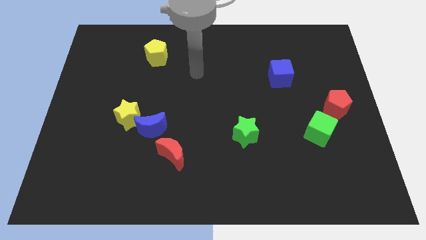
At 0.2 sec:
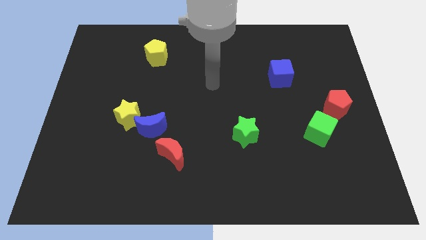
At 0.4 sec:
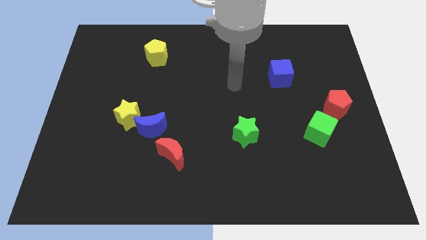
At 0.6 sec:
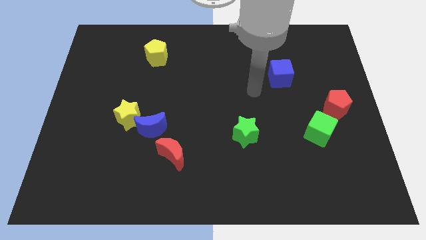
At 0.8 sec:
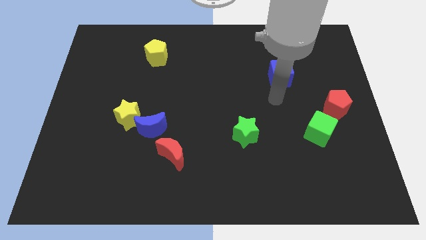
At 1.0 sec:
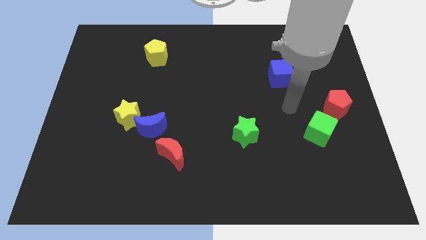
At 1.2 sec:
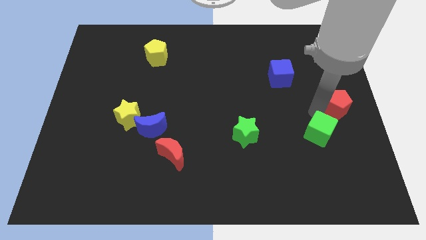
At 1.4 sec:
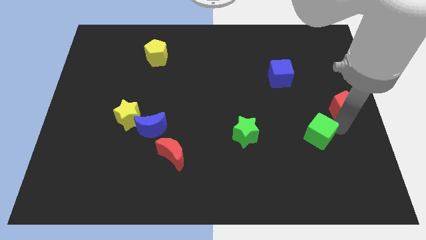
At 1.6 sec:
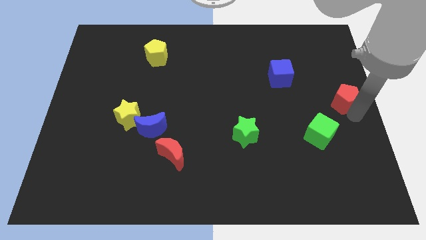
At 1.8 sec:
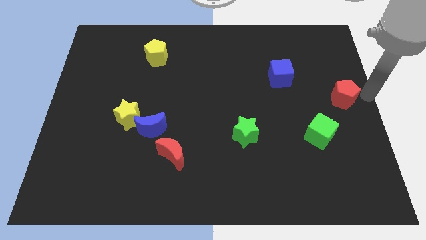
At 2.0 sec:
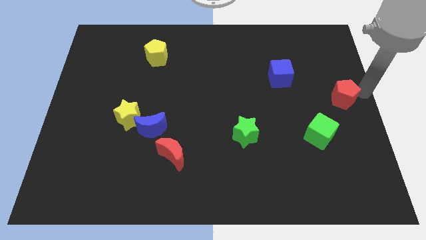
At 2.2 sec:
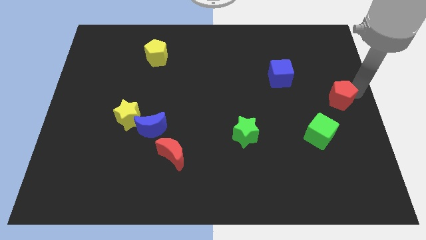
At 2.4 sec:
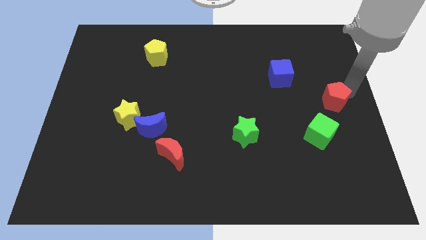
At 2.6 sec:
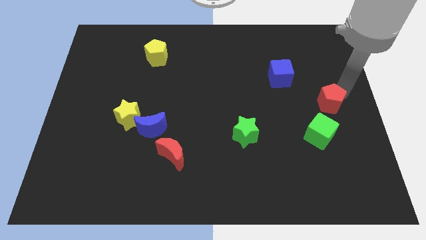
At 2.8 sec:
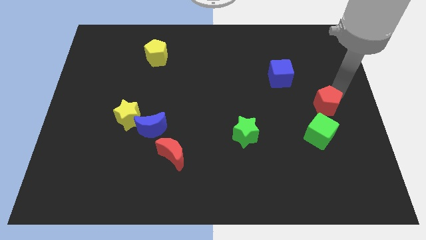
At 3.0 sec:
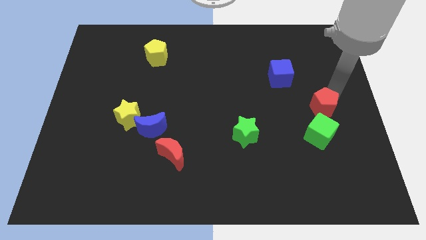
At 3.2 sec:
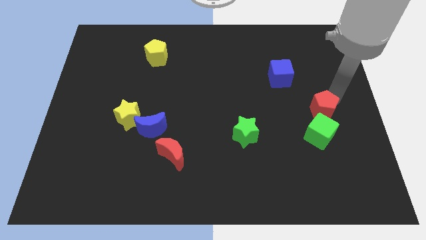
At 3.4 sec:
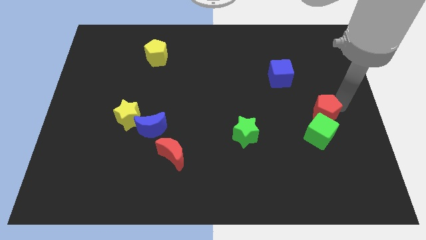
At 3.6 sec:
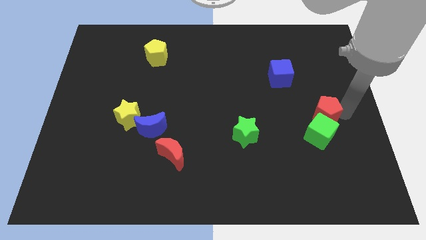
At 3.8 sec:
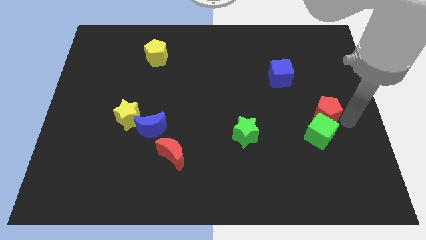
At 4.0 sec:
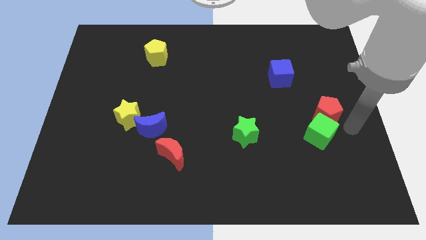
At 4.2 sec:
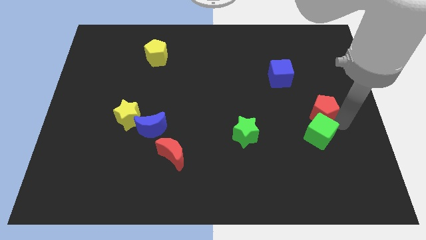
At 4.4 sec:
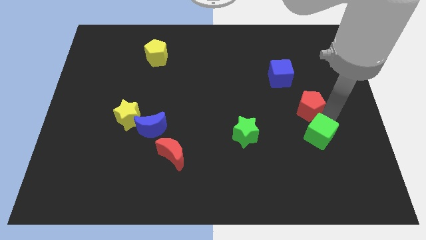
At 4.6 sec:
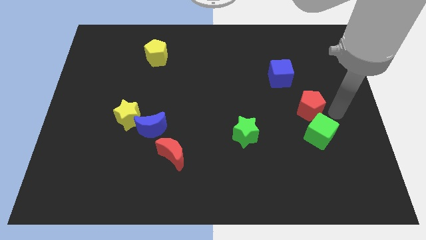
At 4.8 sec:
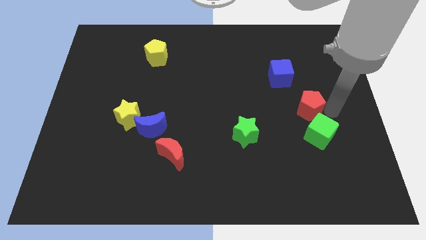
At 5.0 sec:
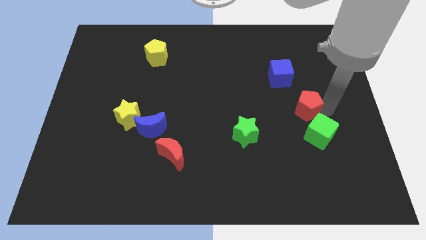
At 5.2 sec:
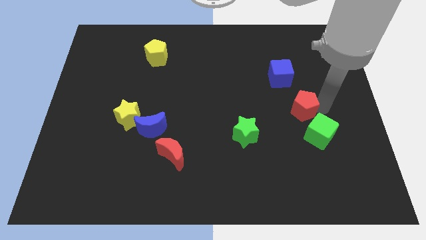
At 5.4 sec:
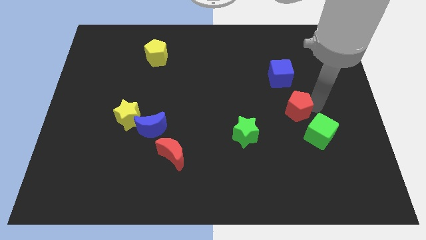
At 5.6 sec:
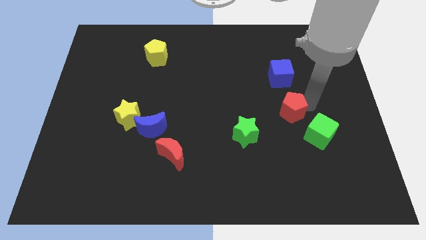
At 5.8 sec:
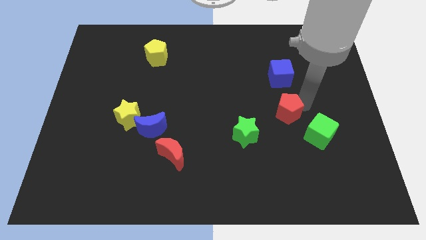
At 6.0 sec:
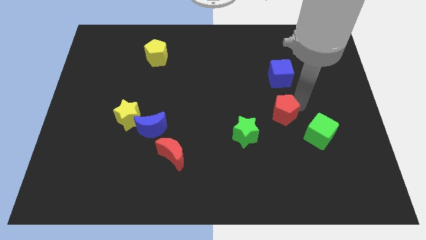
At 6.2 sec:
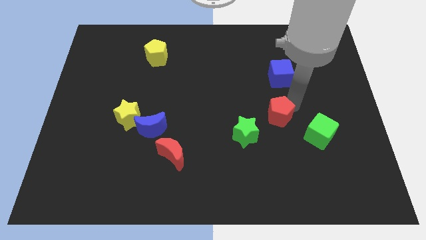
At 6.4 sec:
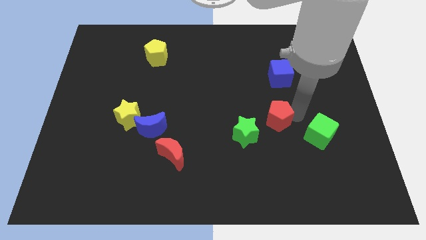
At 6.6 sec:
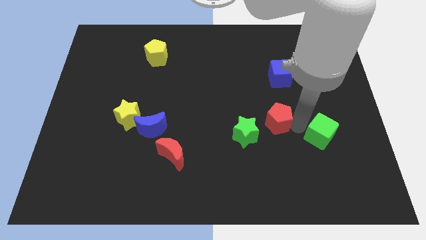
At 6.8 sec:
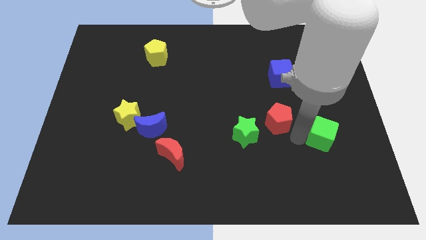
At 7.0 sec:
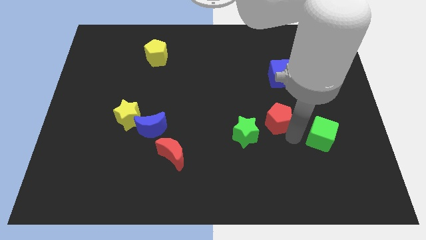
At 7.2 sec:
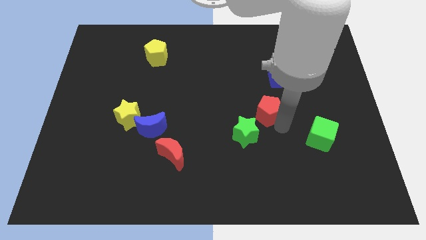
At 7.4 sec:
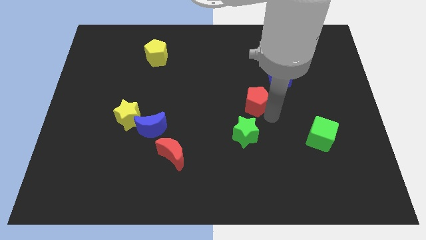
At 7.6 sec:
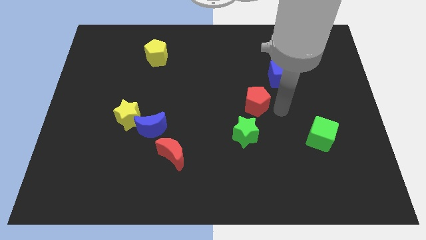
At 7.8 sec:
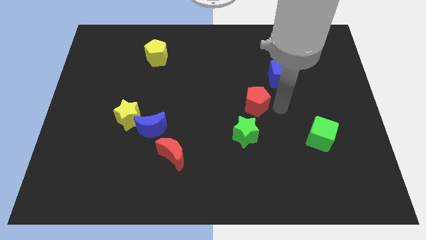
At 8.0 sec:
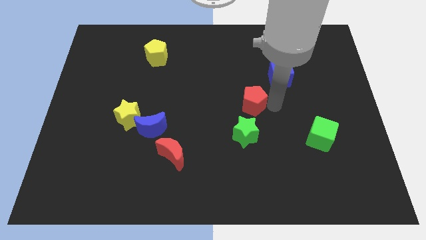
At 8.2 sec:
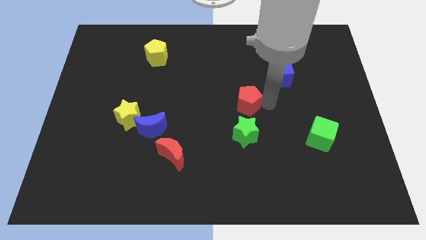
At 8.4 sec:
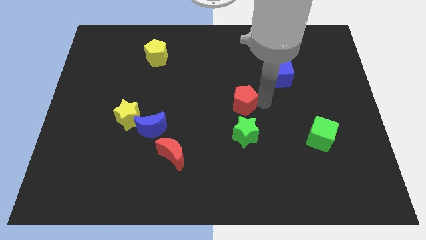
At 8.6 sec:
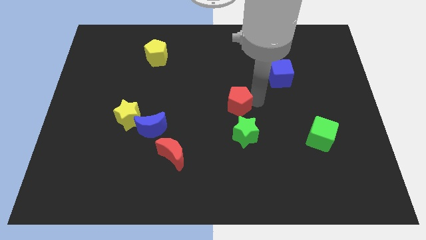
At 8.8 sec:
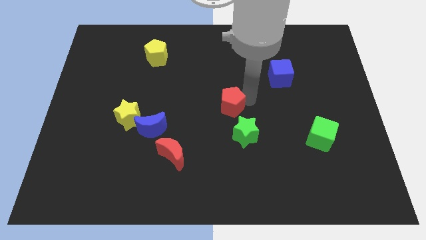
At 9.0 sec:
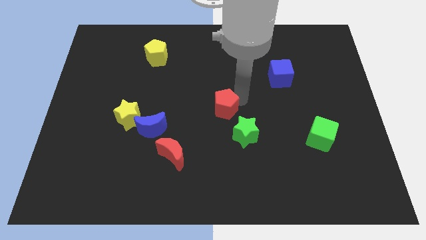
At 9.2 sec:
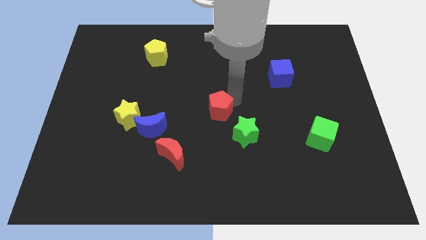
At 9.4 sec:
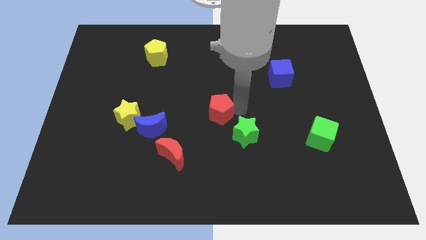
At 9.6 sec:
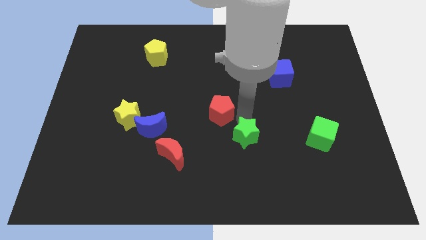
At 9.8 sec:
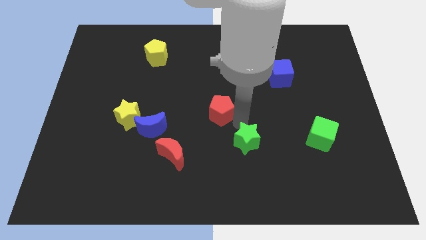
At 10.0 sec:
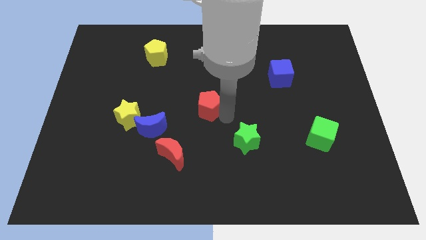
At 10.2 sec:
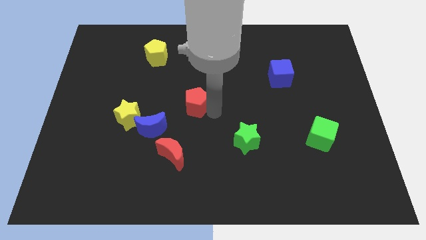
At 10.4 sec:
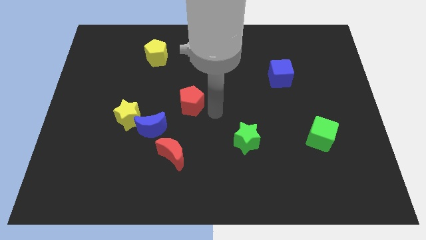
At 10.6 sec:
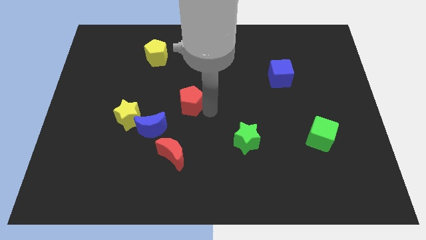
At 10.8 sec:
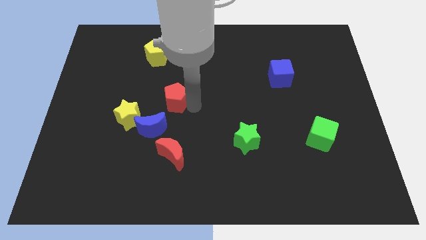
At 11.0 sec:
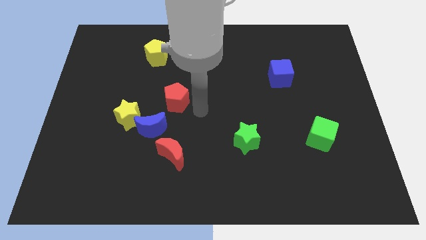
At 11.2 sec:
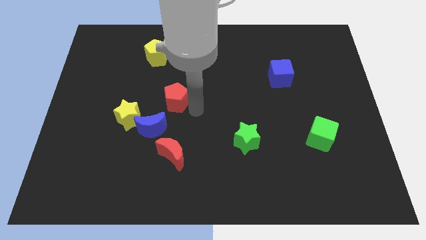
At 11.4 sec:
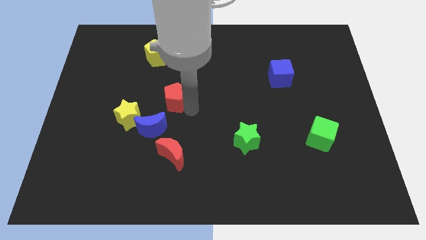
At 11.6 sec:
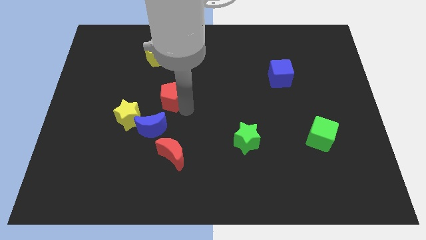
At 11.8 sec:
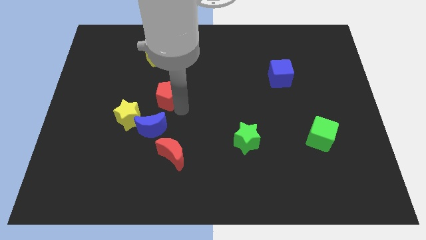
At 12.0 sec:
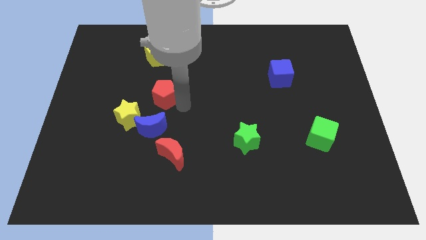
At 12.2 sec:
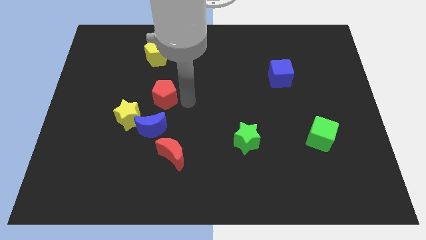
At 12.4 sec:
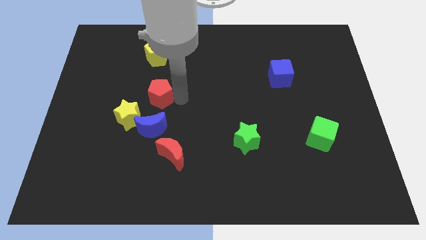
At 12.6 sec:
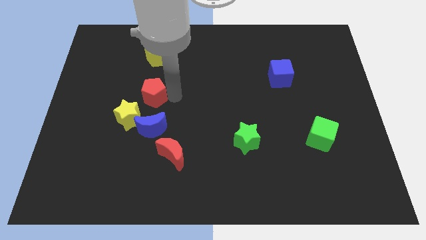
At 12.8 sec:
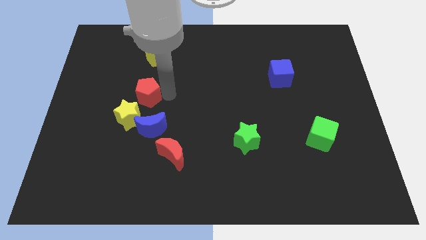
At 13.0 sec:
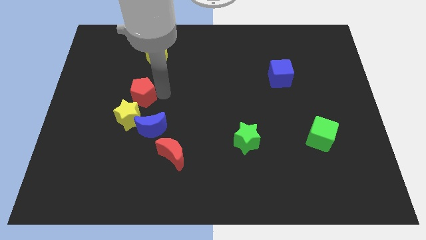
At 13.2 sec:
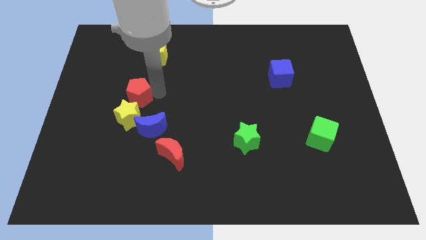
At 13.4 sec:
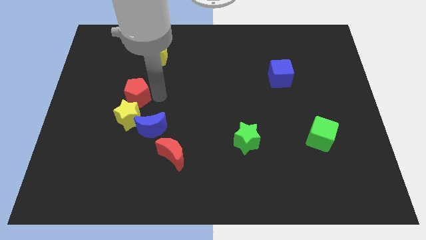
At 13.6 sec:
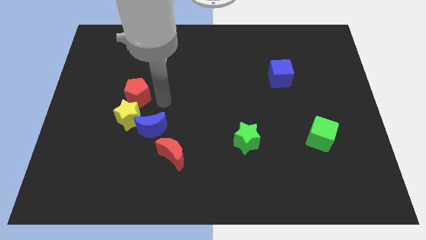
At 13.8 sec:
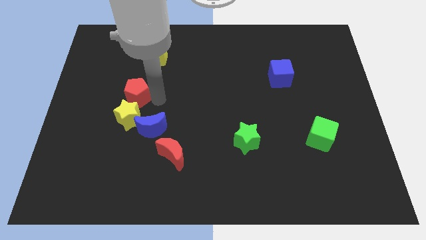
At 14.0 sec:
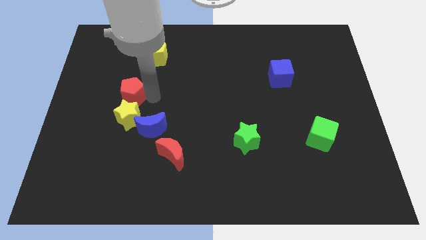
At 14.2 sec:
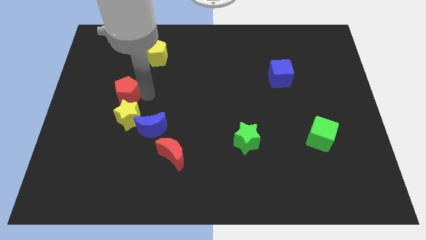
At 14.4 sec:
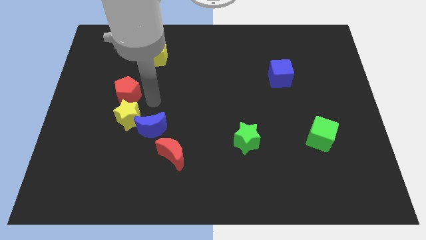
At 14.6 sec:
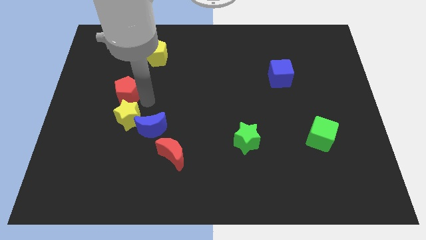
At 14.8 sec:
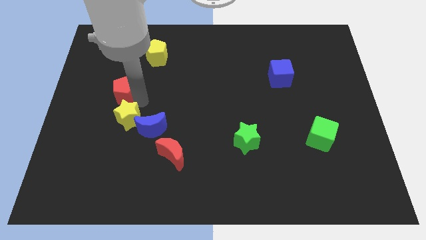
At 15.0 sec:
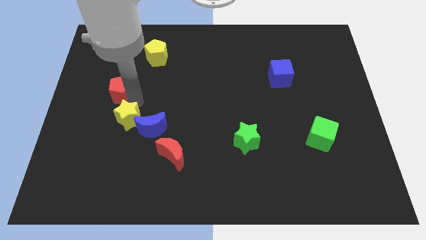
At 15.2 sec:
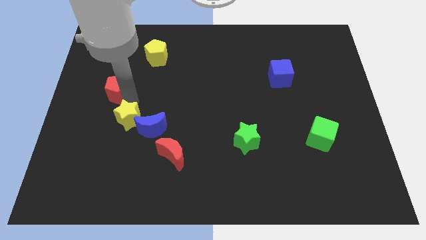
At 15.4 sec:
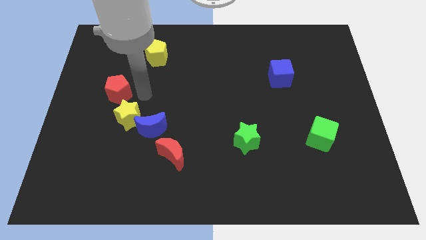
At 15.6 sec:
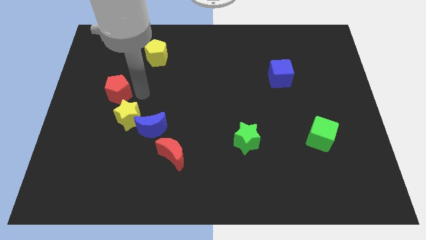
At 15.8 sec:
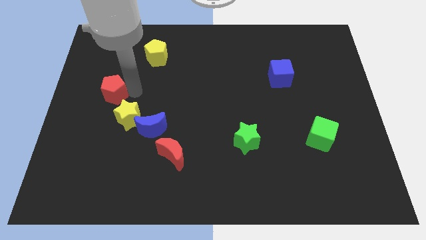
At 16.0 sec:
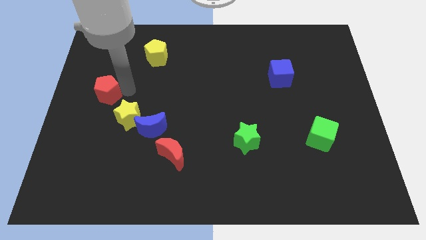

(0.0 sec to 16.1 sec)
move the red pentagon to the left side of the board
